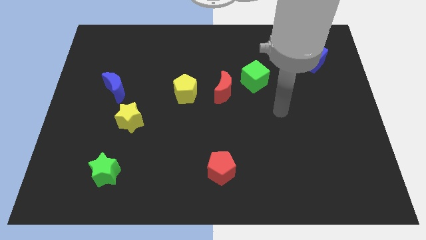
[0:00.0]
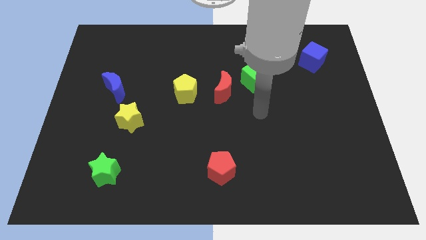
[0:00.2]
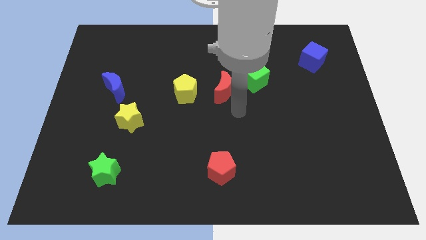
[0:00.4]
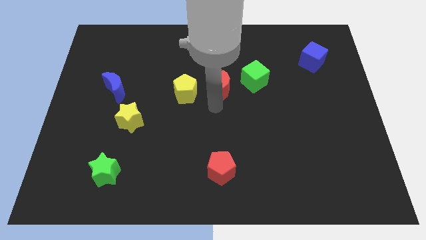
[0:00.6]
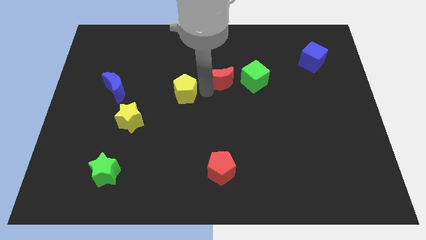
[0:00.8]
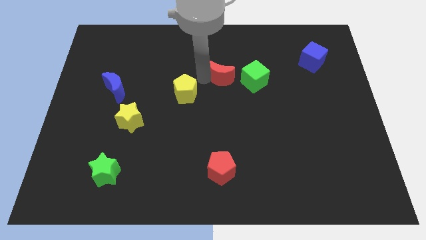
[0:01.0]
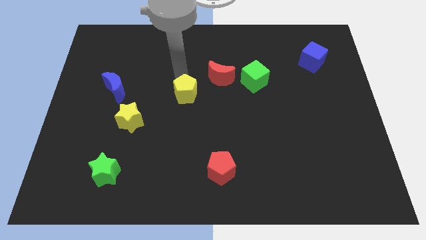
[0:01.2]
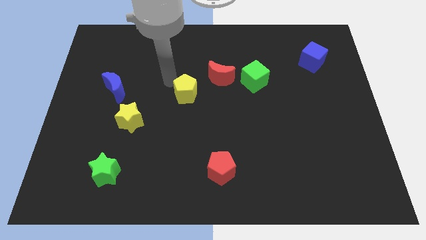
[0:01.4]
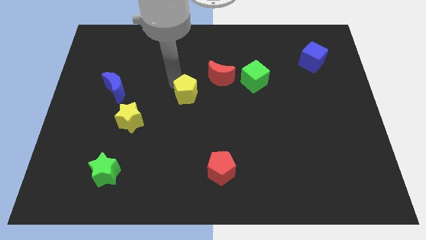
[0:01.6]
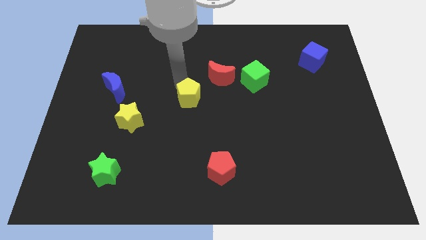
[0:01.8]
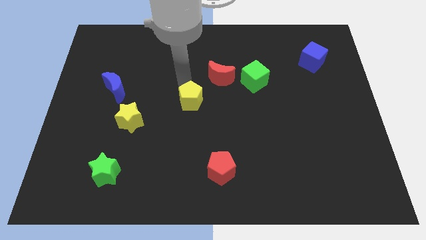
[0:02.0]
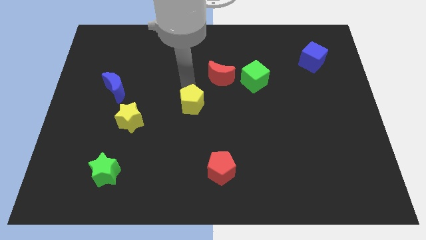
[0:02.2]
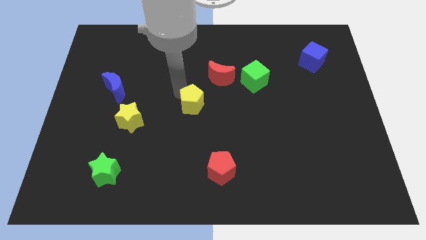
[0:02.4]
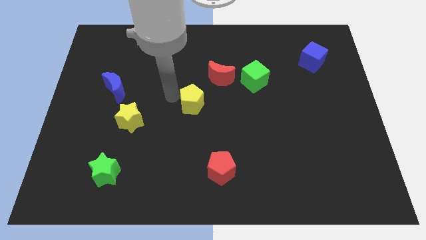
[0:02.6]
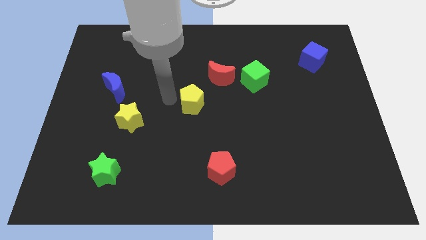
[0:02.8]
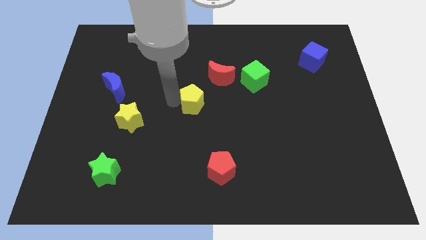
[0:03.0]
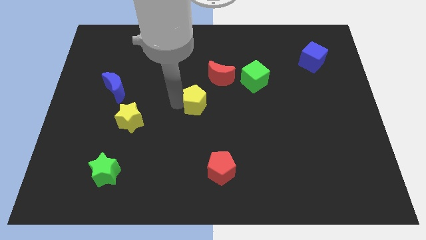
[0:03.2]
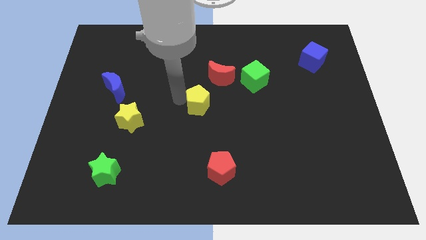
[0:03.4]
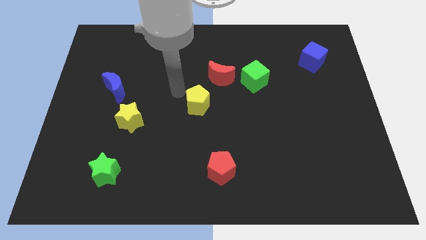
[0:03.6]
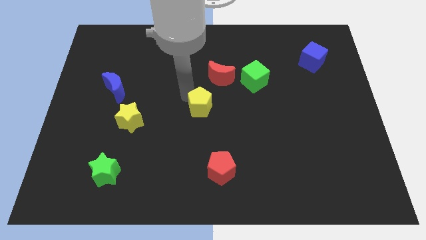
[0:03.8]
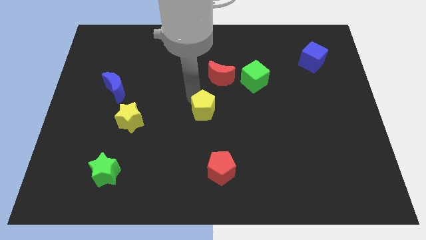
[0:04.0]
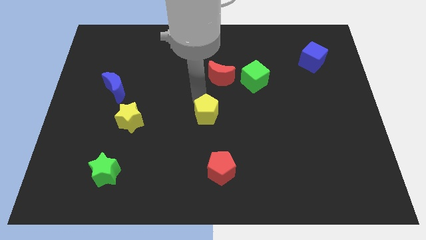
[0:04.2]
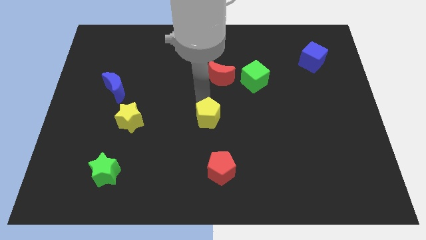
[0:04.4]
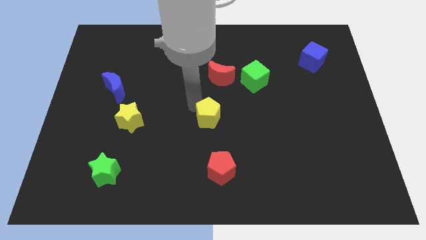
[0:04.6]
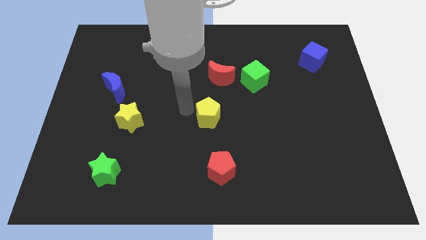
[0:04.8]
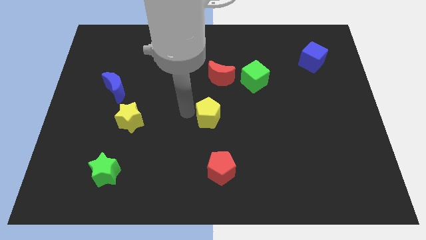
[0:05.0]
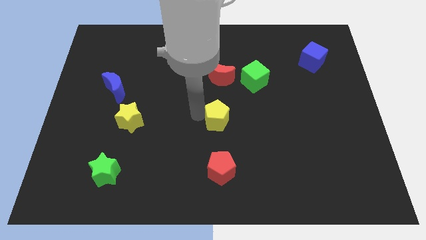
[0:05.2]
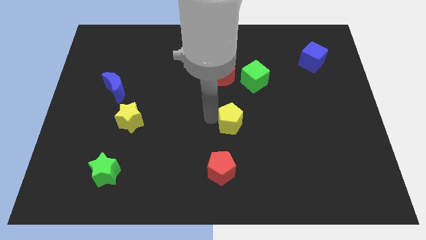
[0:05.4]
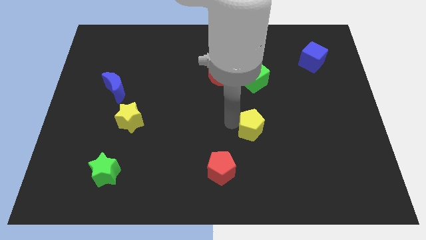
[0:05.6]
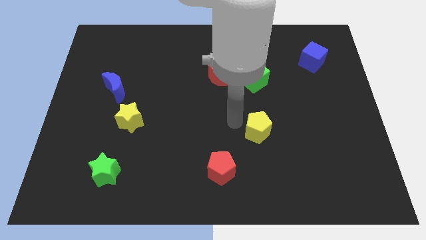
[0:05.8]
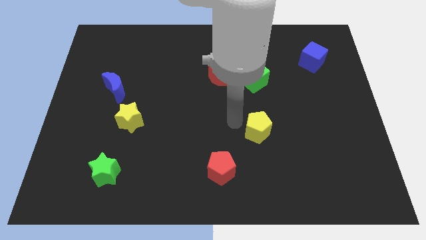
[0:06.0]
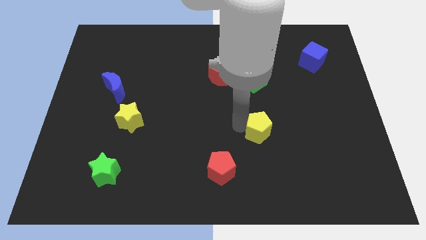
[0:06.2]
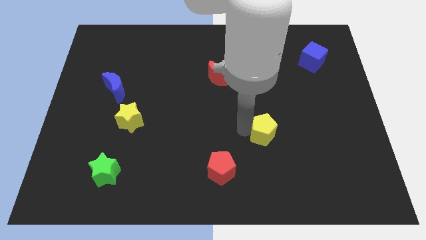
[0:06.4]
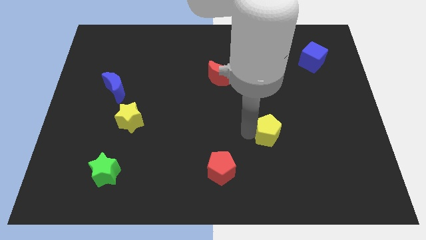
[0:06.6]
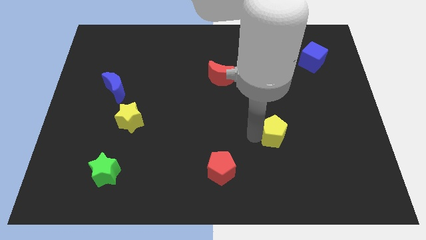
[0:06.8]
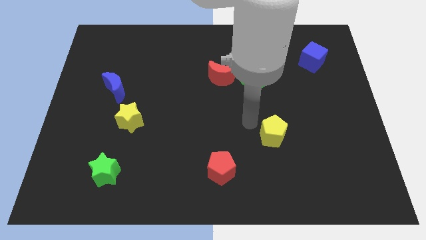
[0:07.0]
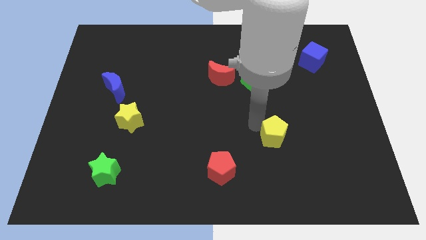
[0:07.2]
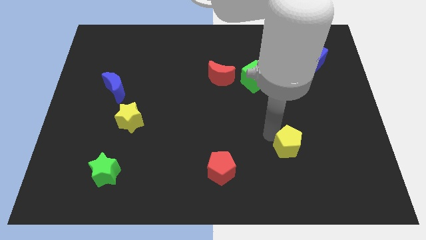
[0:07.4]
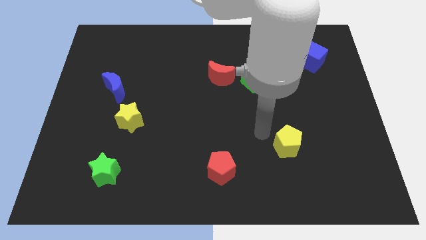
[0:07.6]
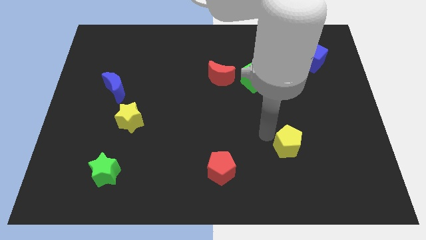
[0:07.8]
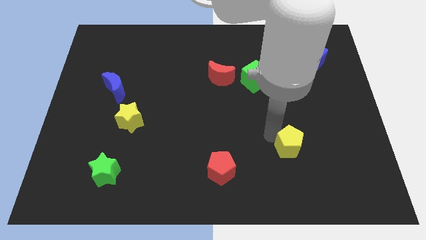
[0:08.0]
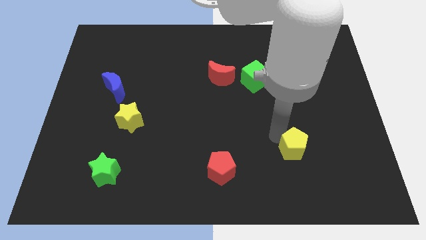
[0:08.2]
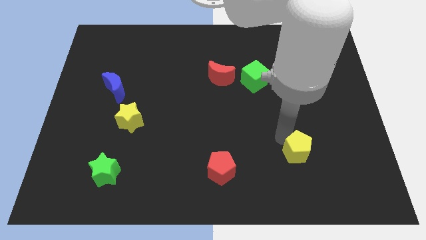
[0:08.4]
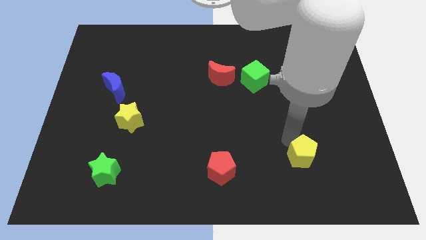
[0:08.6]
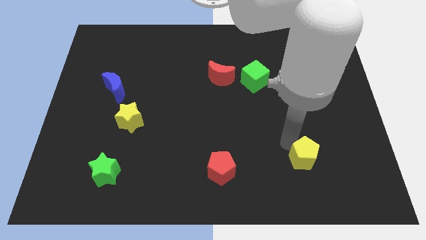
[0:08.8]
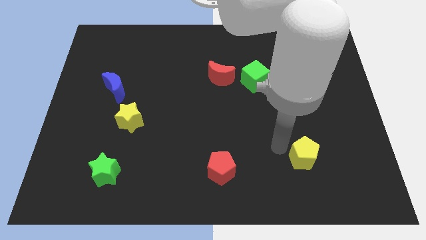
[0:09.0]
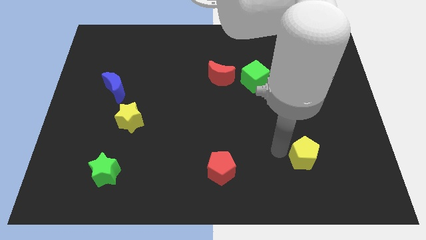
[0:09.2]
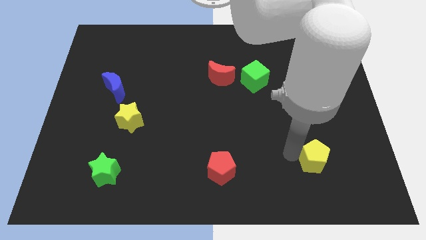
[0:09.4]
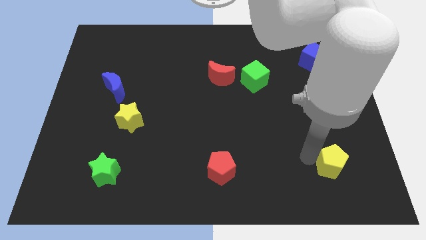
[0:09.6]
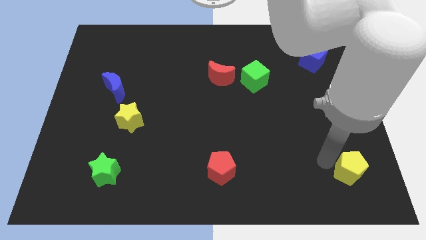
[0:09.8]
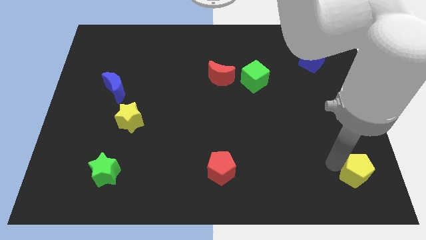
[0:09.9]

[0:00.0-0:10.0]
move the yellow pentagon to the bottom right

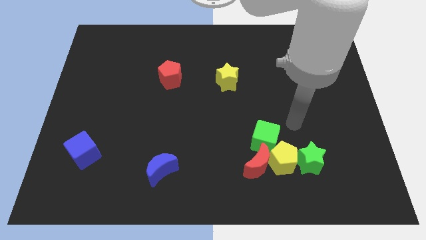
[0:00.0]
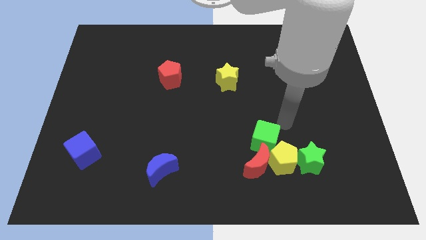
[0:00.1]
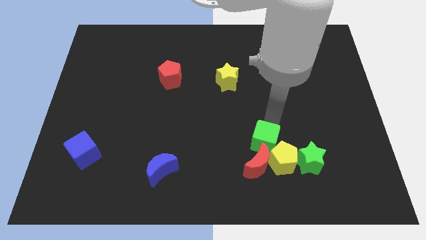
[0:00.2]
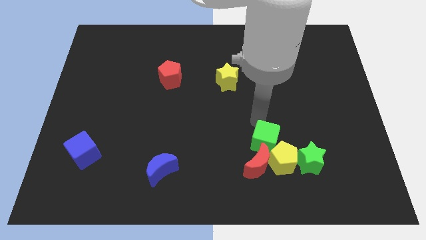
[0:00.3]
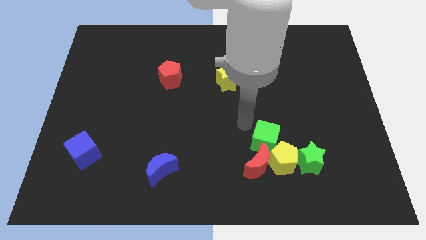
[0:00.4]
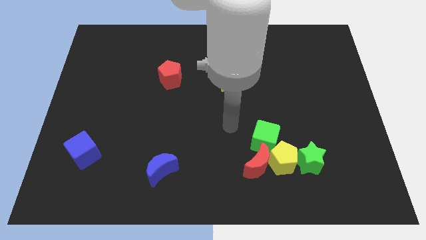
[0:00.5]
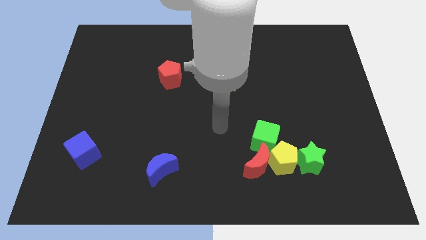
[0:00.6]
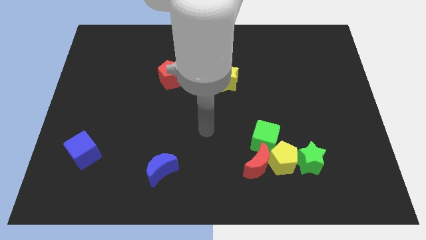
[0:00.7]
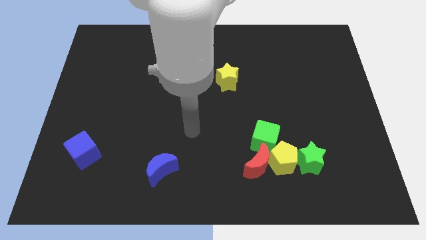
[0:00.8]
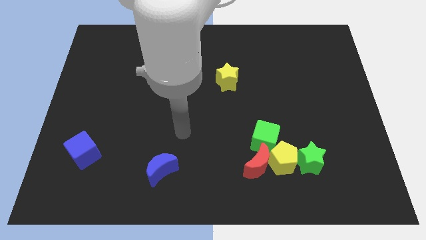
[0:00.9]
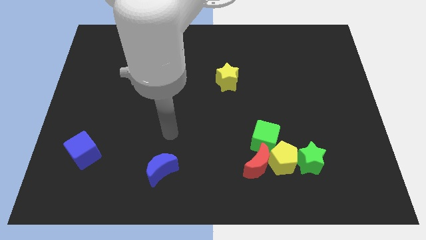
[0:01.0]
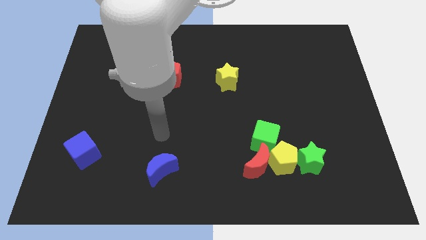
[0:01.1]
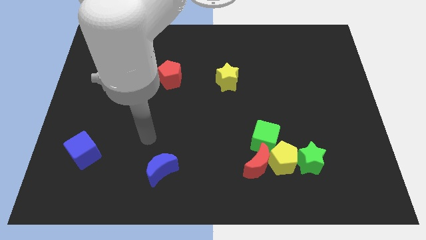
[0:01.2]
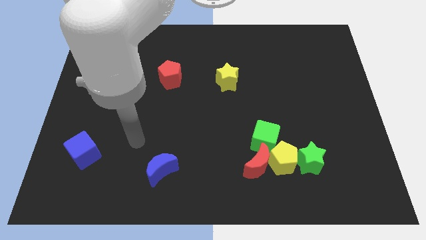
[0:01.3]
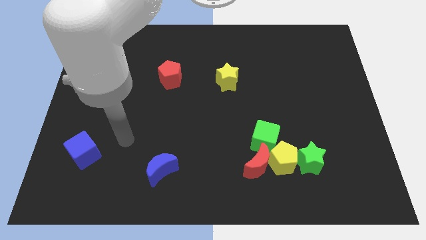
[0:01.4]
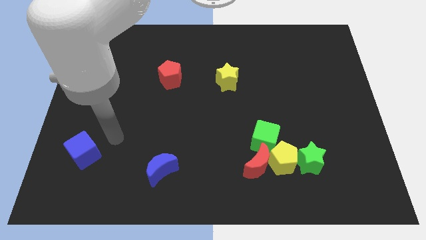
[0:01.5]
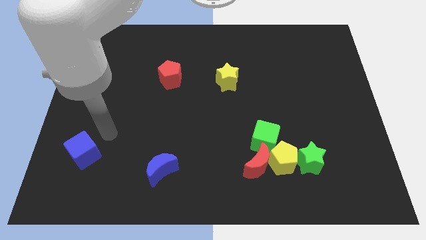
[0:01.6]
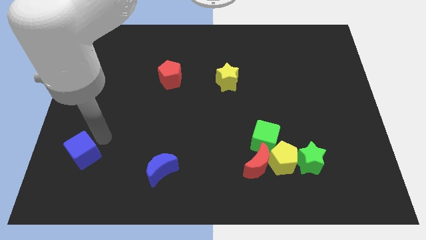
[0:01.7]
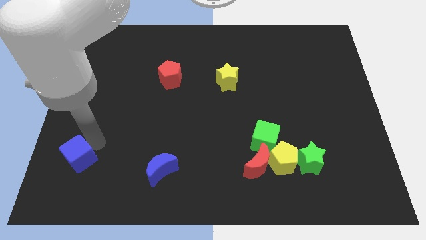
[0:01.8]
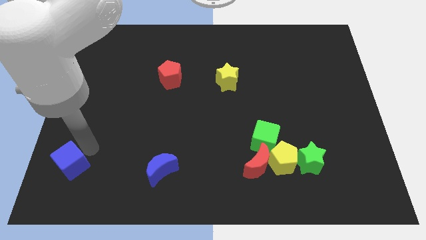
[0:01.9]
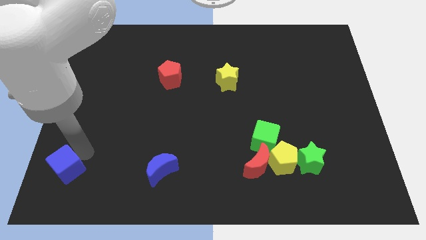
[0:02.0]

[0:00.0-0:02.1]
put the blue cube to the bottom left of the board
